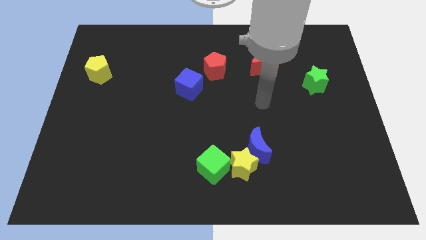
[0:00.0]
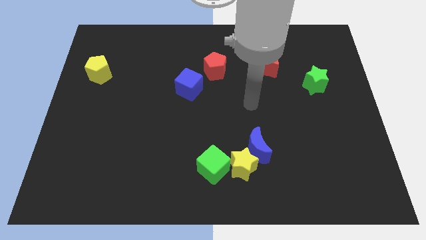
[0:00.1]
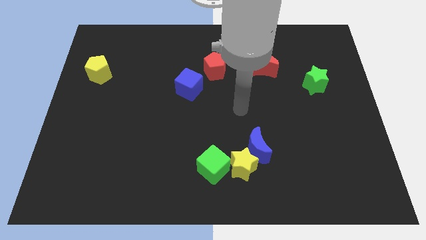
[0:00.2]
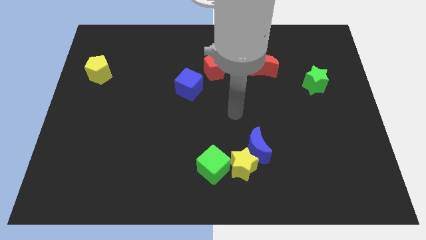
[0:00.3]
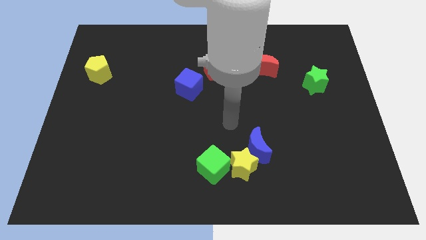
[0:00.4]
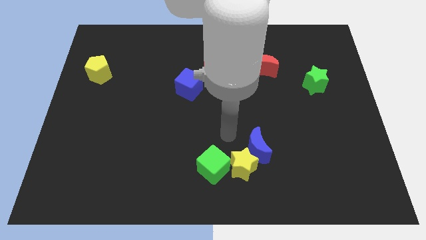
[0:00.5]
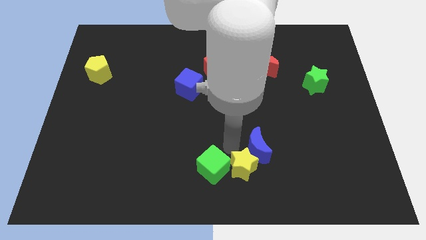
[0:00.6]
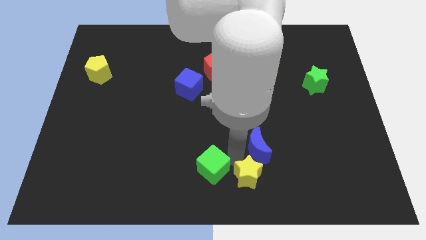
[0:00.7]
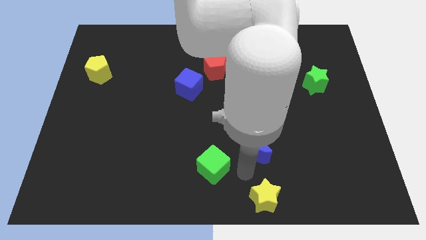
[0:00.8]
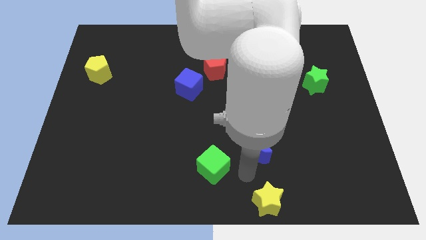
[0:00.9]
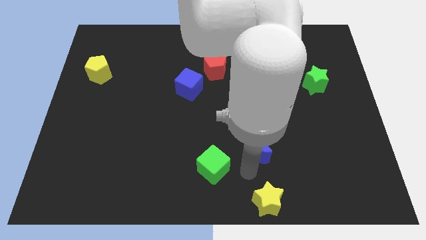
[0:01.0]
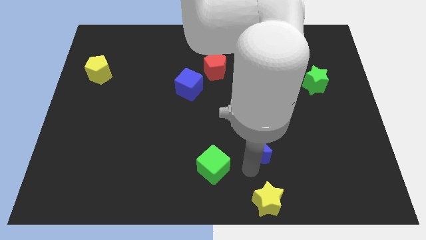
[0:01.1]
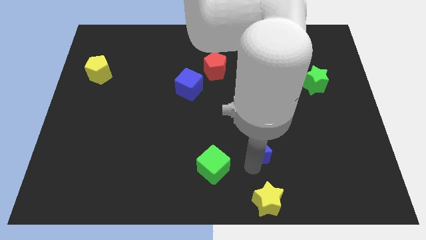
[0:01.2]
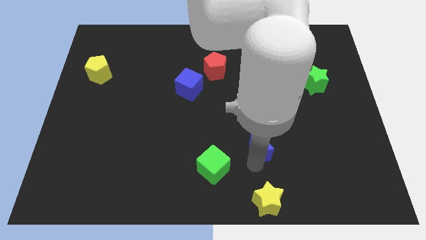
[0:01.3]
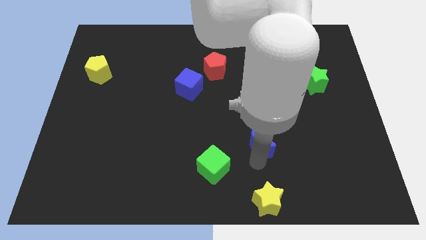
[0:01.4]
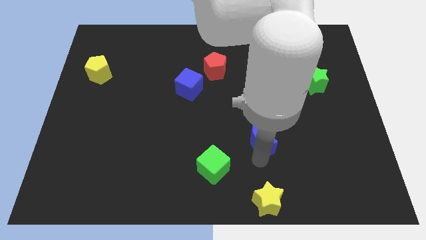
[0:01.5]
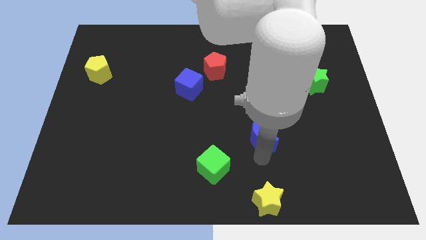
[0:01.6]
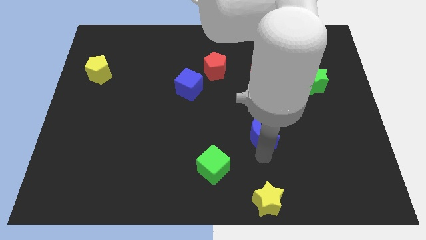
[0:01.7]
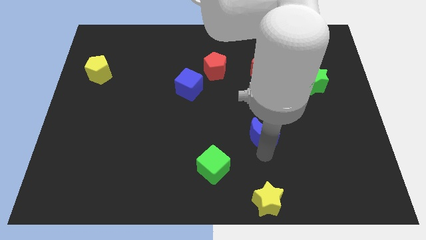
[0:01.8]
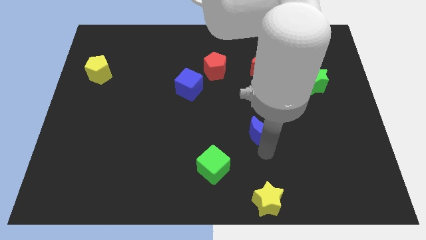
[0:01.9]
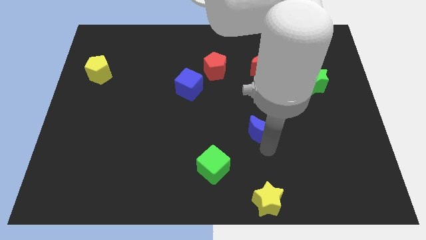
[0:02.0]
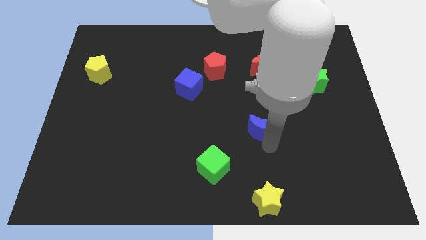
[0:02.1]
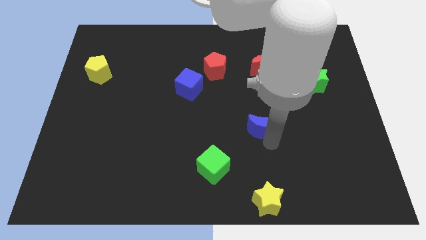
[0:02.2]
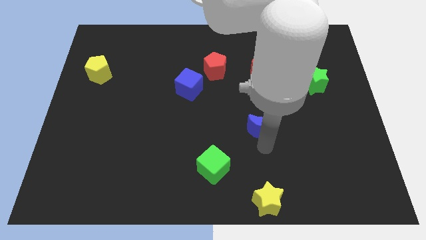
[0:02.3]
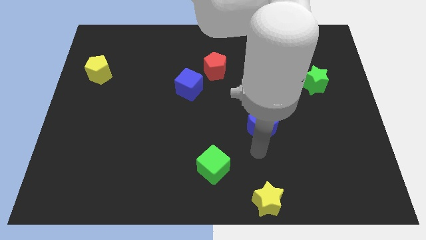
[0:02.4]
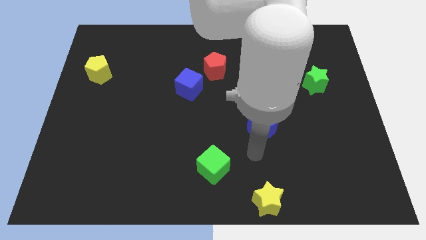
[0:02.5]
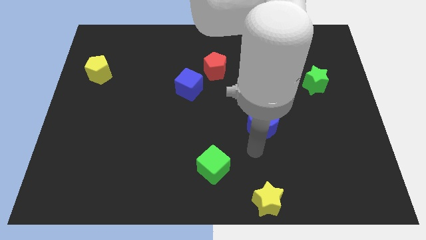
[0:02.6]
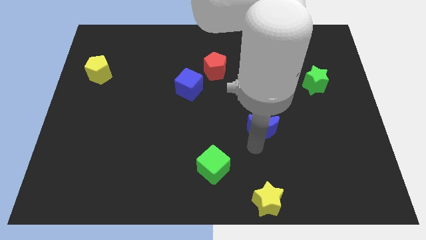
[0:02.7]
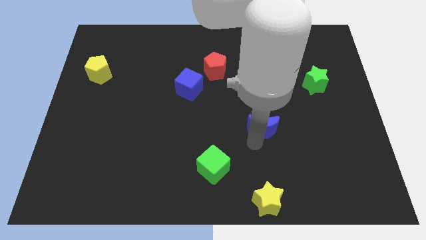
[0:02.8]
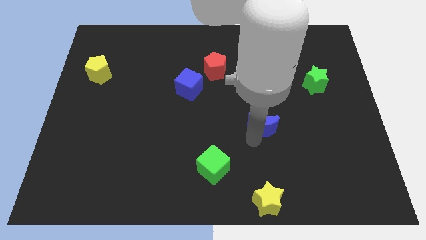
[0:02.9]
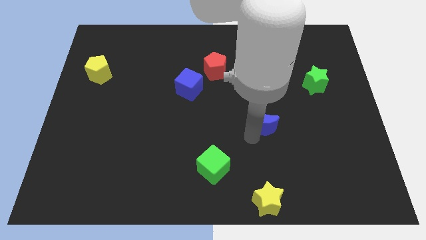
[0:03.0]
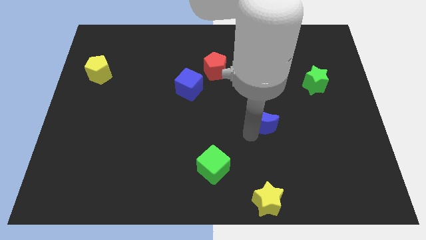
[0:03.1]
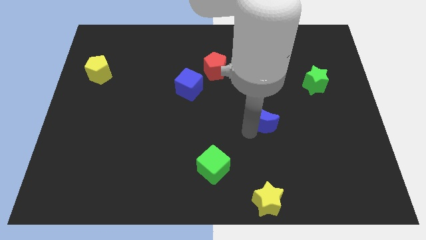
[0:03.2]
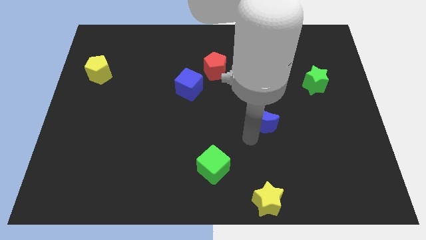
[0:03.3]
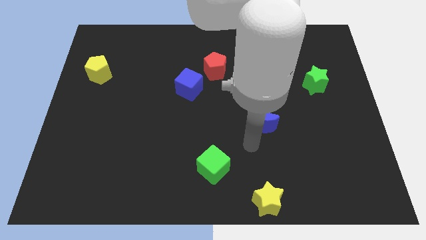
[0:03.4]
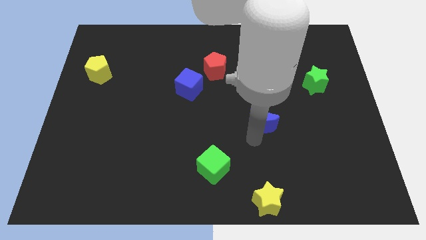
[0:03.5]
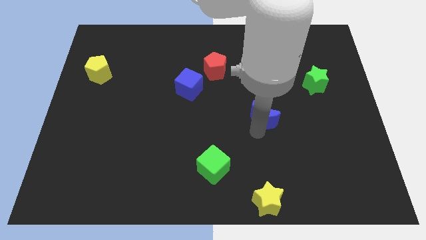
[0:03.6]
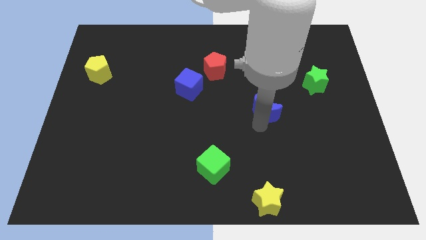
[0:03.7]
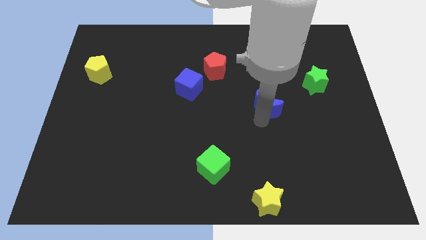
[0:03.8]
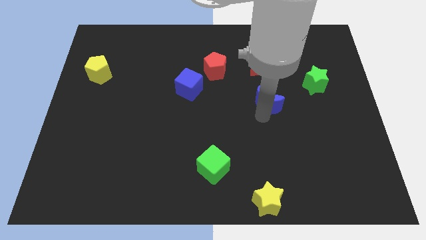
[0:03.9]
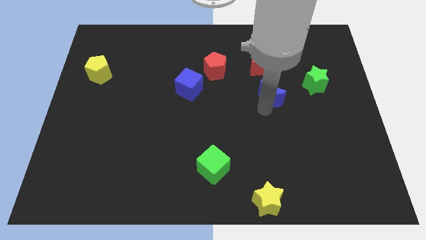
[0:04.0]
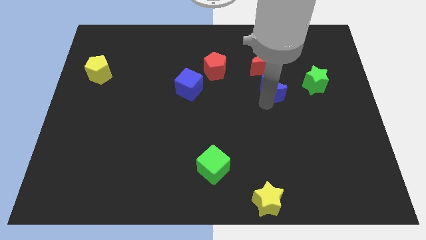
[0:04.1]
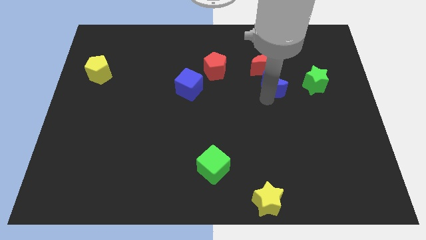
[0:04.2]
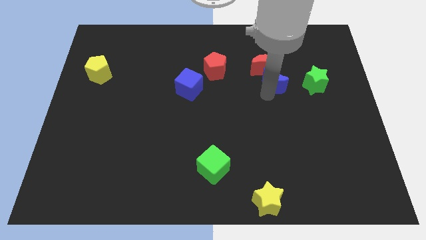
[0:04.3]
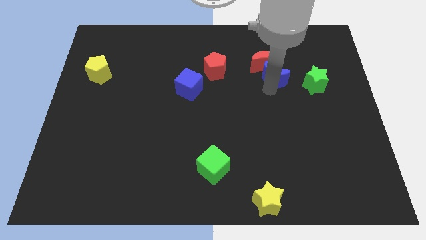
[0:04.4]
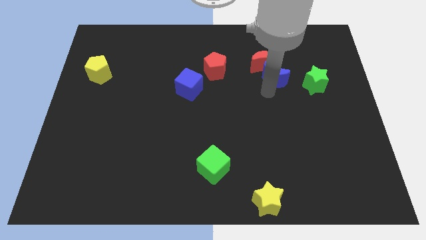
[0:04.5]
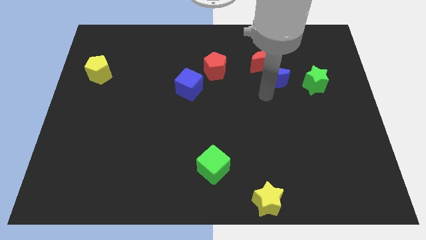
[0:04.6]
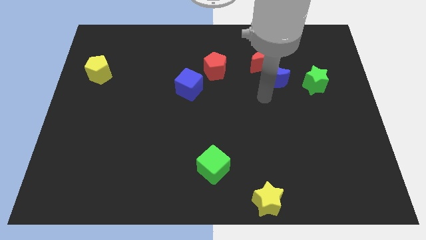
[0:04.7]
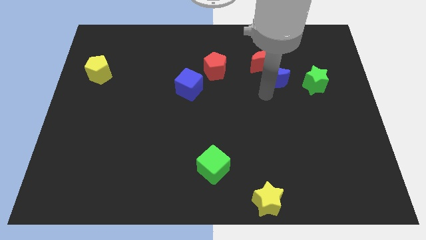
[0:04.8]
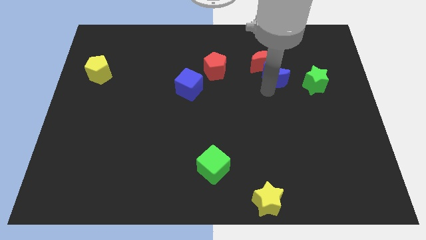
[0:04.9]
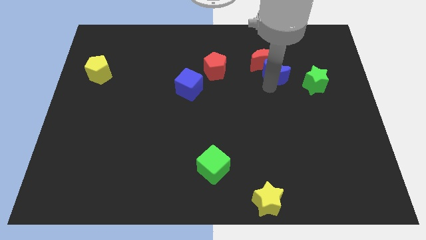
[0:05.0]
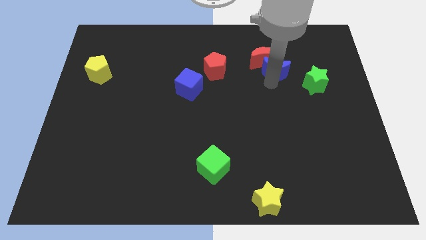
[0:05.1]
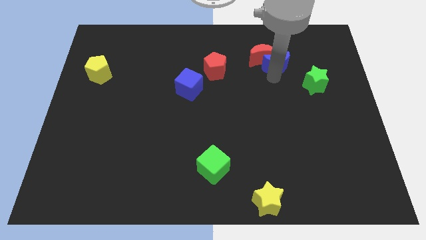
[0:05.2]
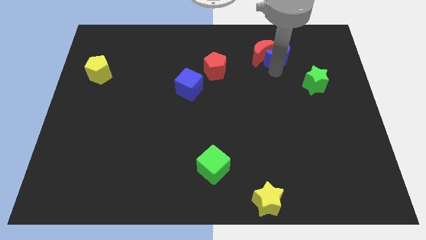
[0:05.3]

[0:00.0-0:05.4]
move the blue moon to the top right of the red moon

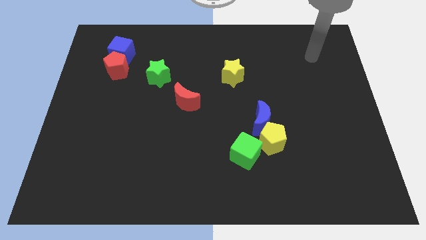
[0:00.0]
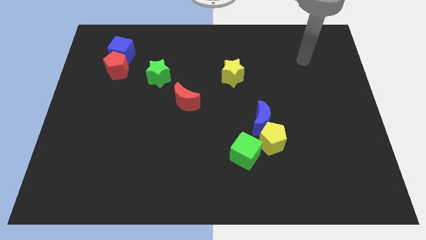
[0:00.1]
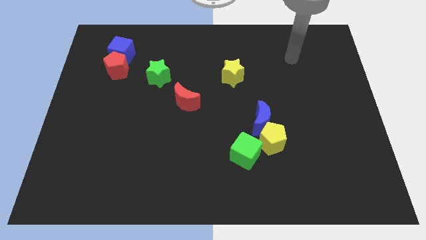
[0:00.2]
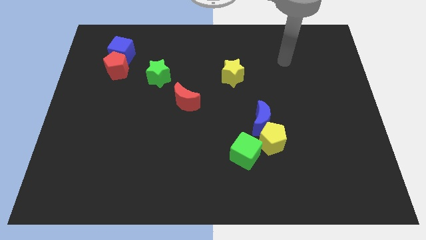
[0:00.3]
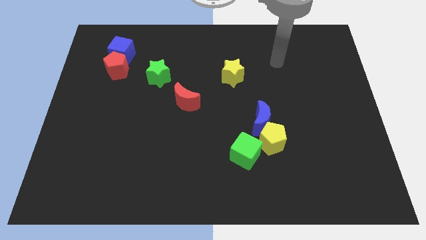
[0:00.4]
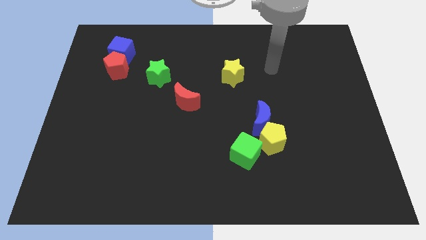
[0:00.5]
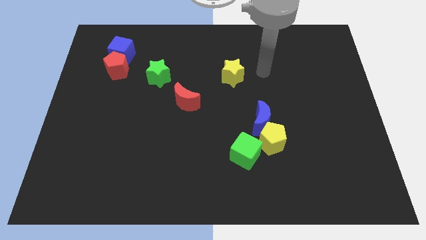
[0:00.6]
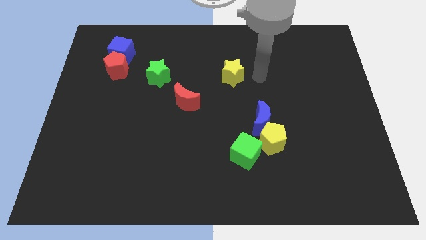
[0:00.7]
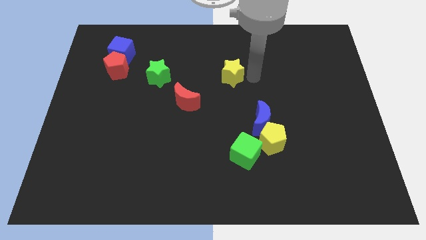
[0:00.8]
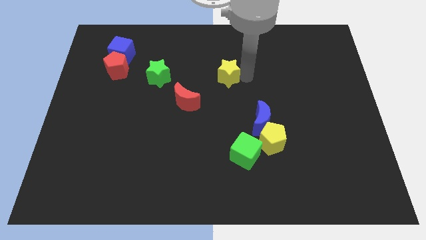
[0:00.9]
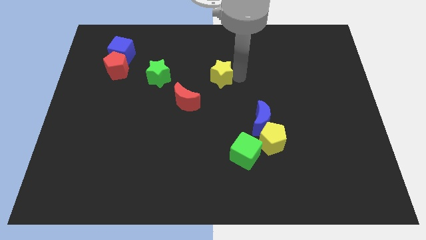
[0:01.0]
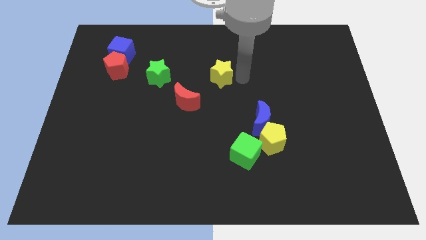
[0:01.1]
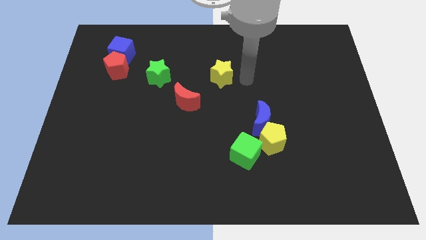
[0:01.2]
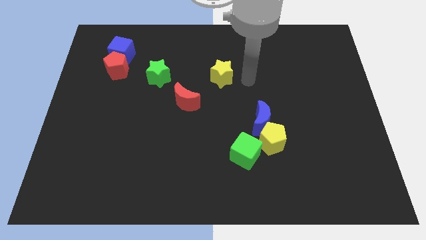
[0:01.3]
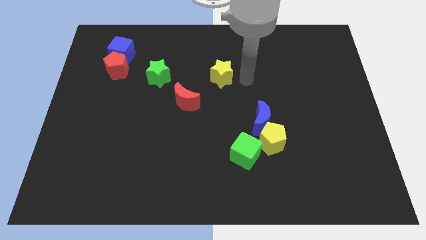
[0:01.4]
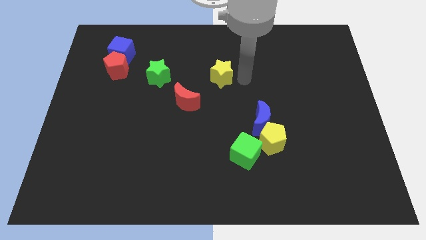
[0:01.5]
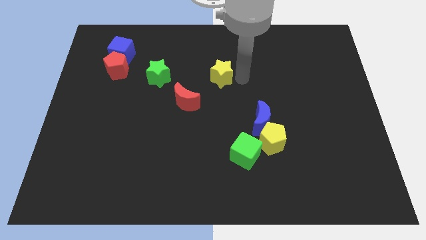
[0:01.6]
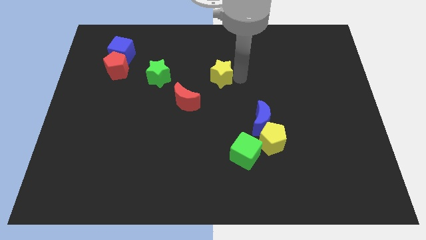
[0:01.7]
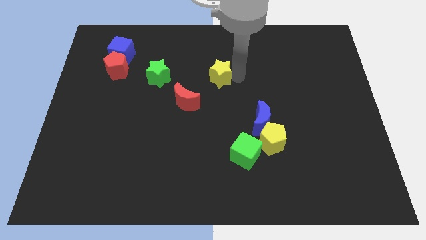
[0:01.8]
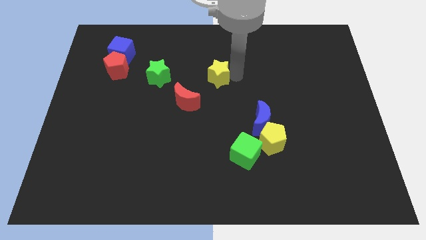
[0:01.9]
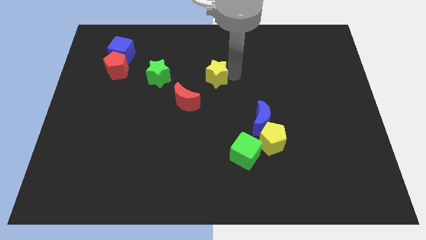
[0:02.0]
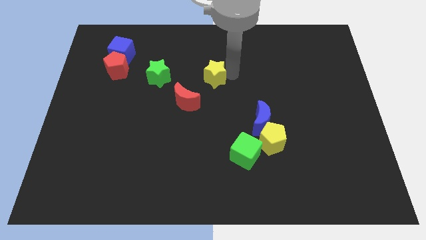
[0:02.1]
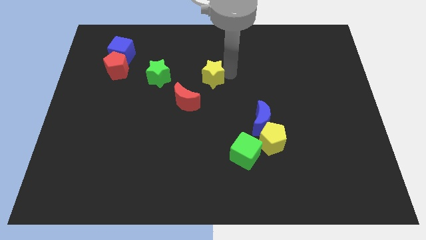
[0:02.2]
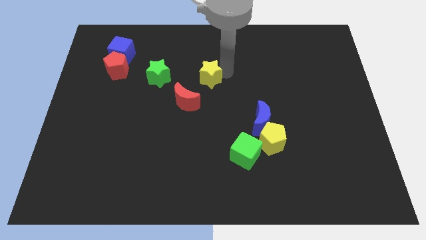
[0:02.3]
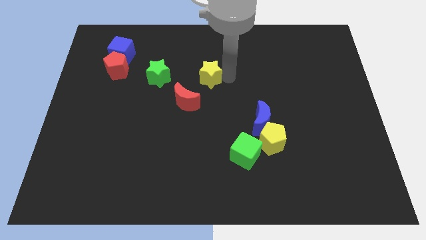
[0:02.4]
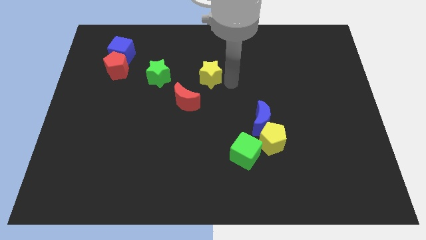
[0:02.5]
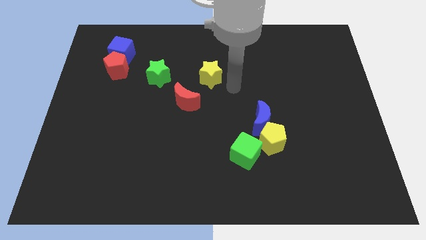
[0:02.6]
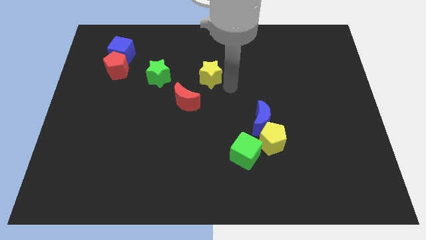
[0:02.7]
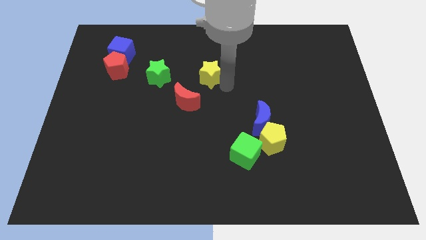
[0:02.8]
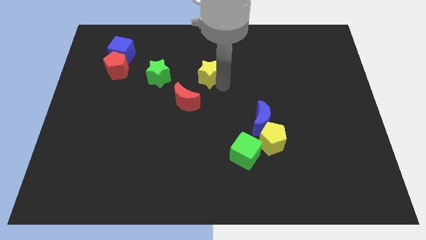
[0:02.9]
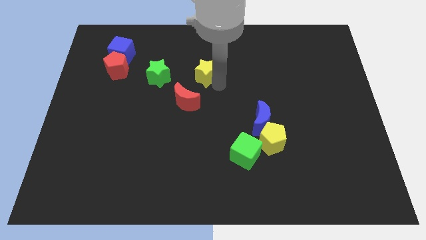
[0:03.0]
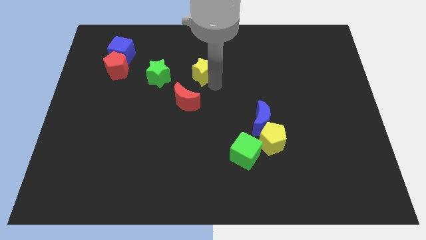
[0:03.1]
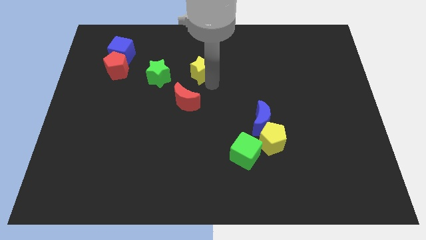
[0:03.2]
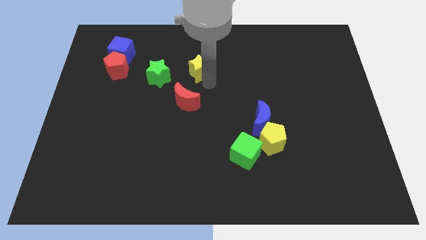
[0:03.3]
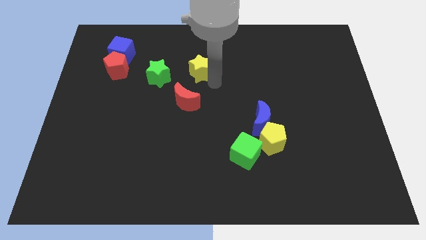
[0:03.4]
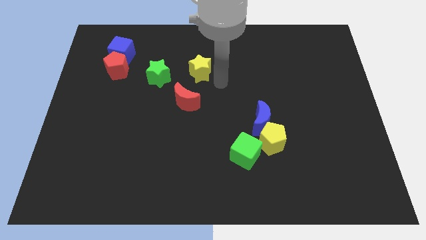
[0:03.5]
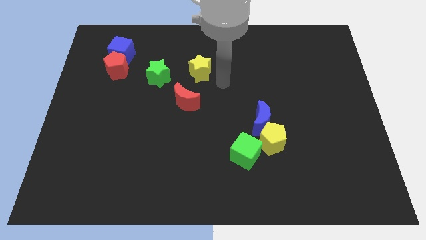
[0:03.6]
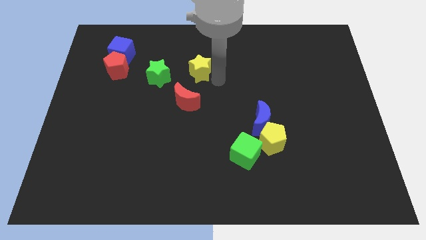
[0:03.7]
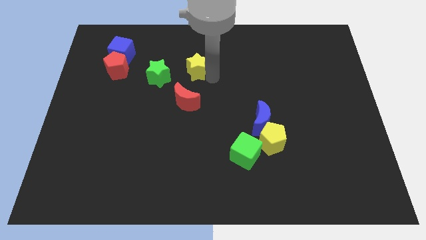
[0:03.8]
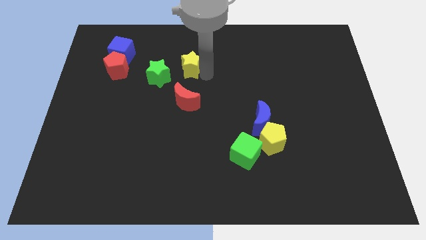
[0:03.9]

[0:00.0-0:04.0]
slide the yellow star to the top right of the green star
